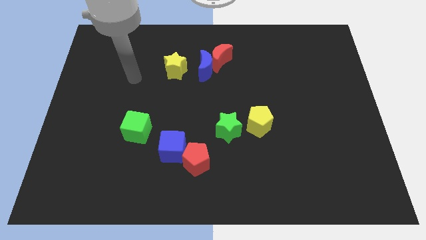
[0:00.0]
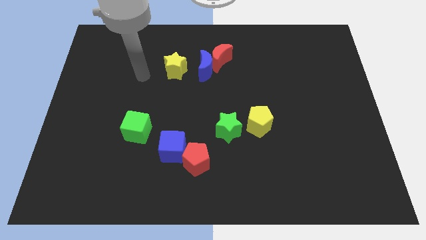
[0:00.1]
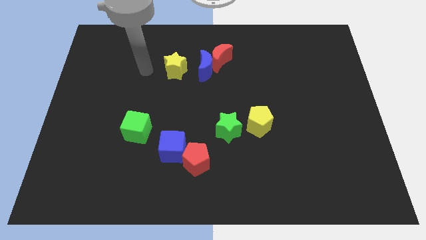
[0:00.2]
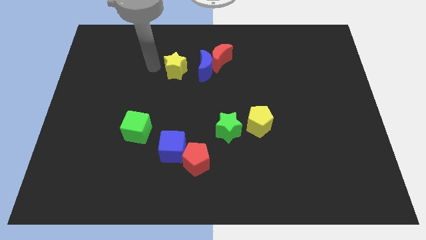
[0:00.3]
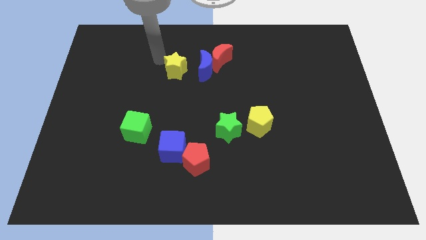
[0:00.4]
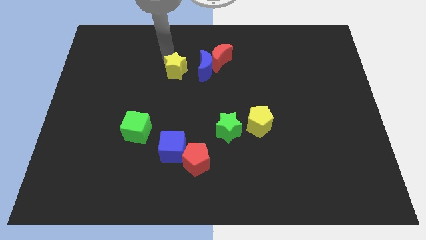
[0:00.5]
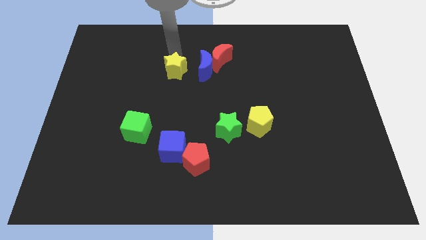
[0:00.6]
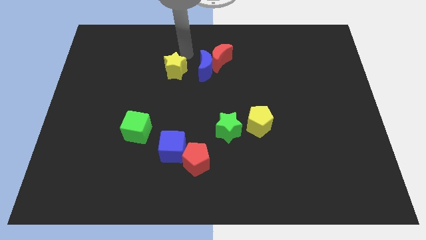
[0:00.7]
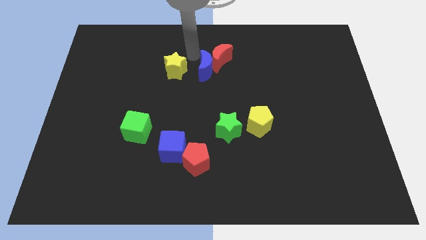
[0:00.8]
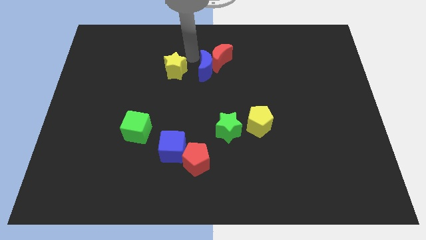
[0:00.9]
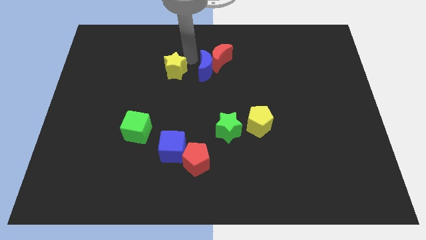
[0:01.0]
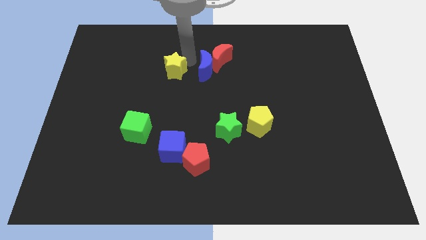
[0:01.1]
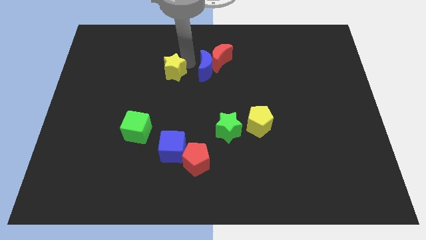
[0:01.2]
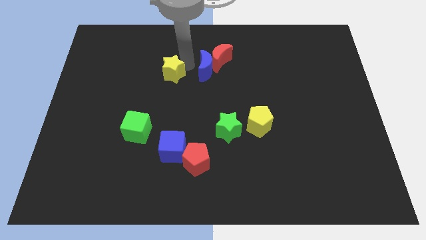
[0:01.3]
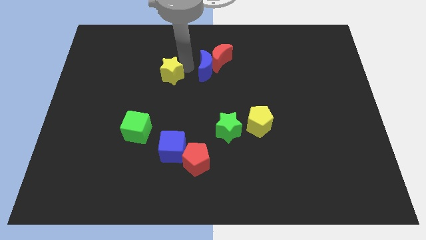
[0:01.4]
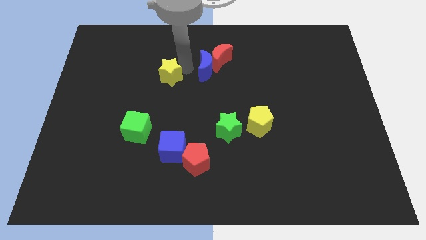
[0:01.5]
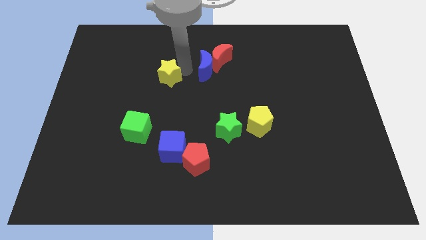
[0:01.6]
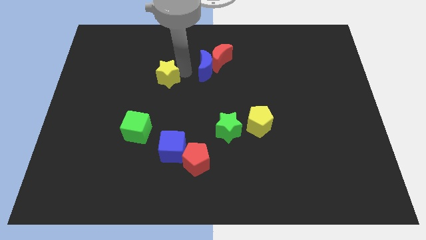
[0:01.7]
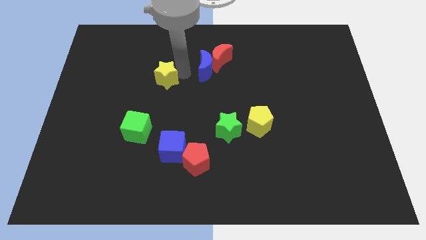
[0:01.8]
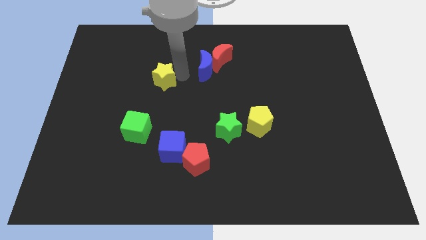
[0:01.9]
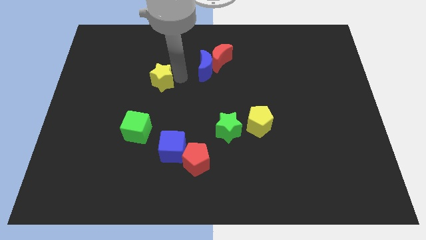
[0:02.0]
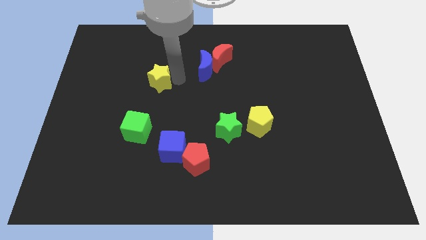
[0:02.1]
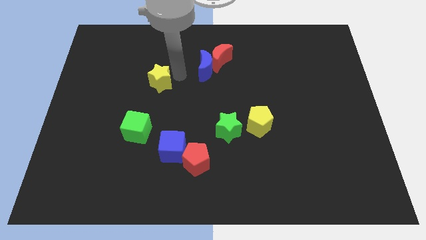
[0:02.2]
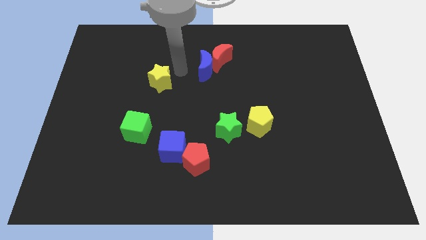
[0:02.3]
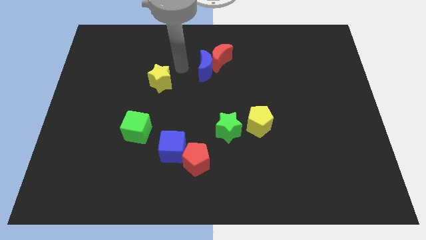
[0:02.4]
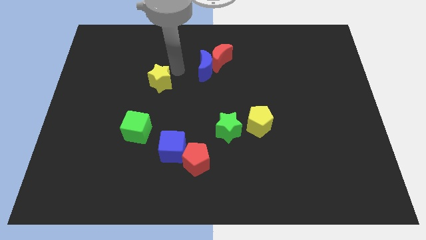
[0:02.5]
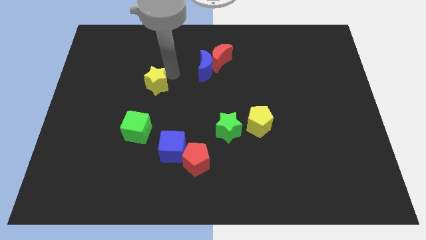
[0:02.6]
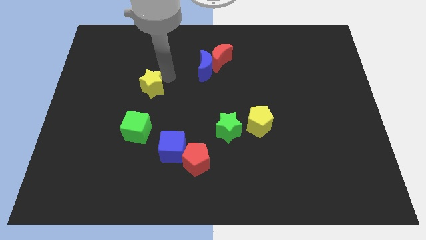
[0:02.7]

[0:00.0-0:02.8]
push the yellow star slightly downwards and then to the left

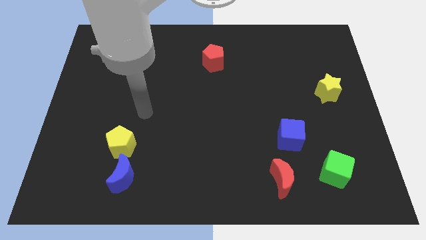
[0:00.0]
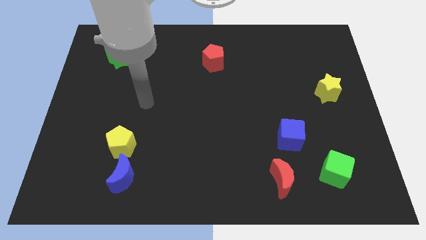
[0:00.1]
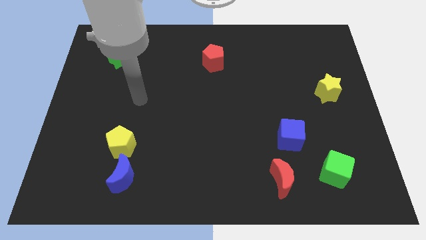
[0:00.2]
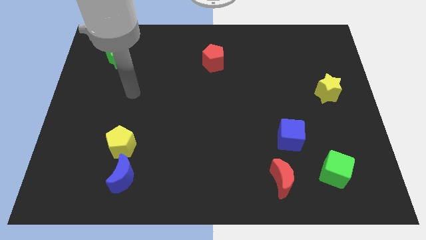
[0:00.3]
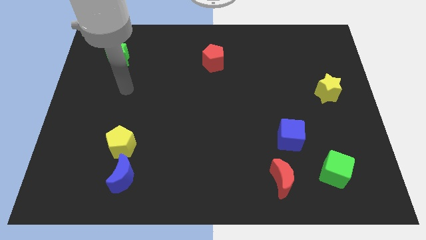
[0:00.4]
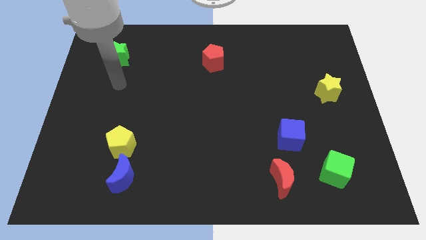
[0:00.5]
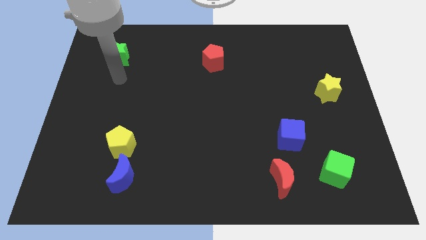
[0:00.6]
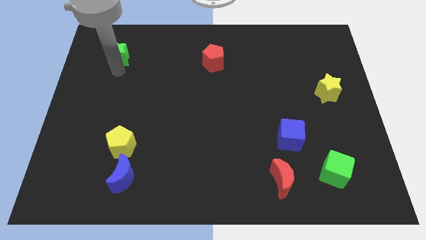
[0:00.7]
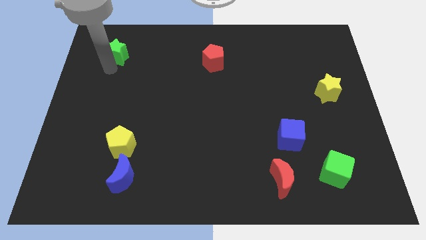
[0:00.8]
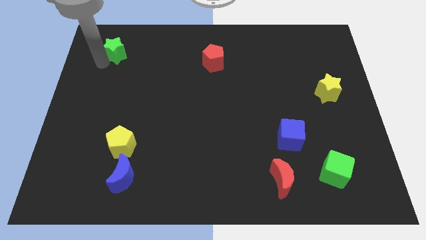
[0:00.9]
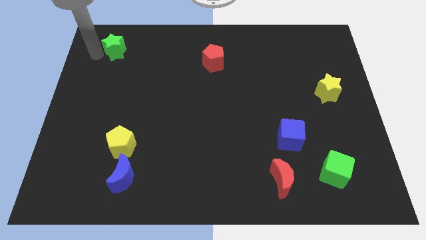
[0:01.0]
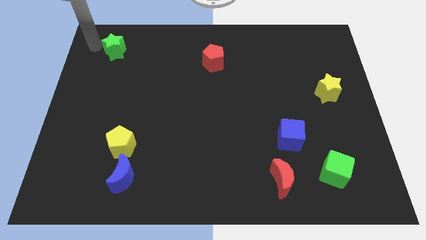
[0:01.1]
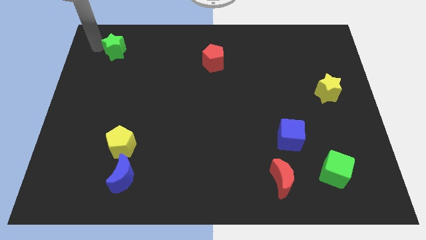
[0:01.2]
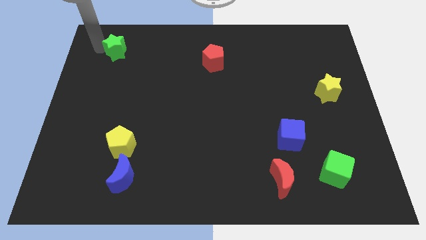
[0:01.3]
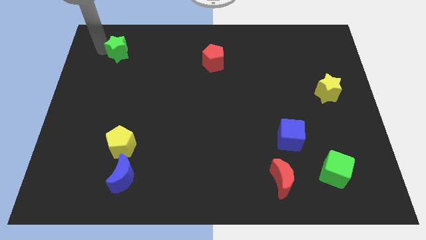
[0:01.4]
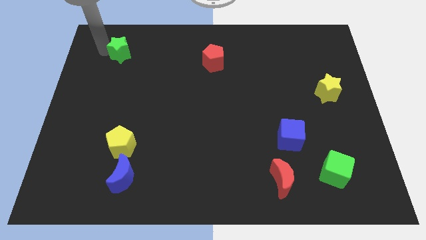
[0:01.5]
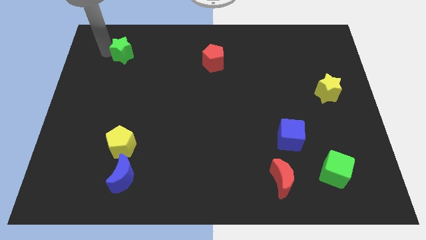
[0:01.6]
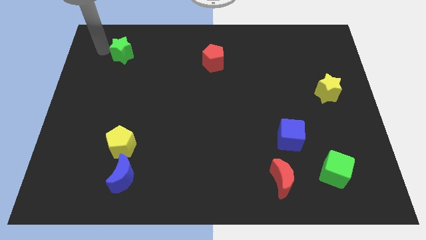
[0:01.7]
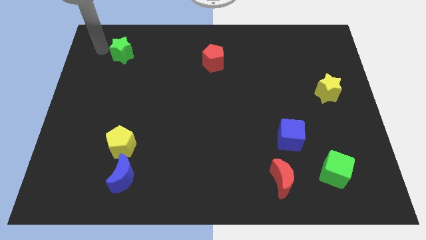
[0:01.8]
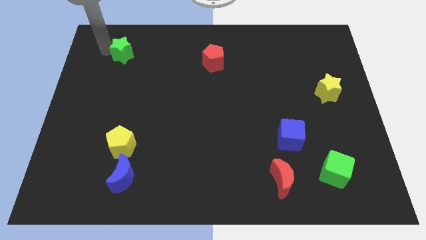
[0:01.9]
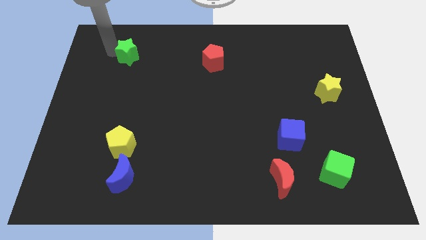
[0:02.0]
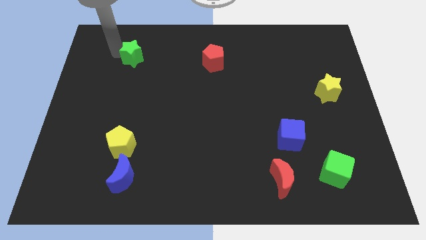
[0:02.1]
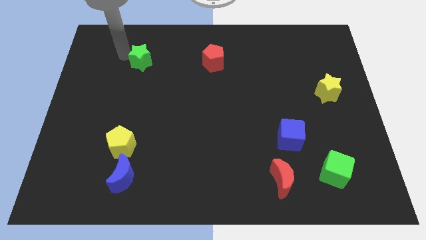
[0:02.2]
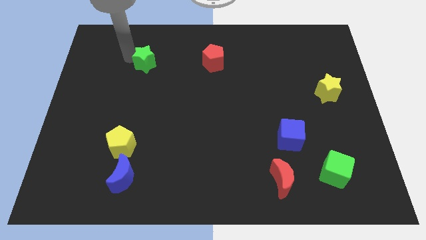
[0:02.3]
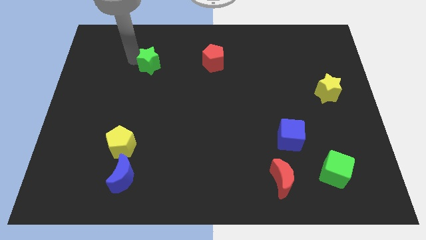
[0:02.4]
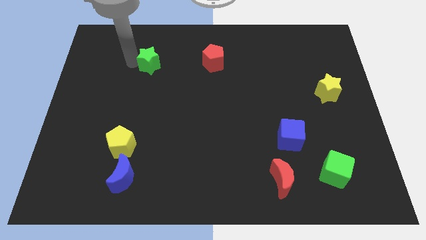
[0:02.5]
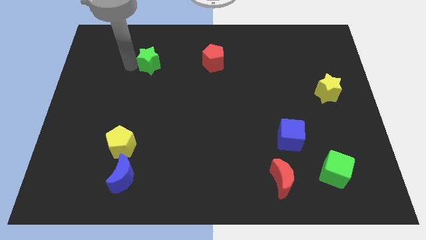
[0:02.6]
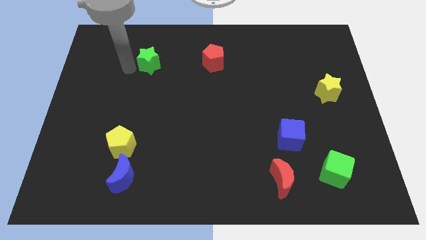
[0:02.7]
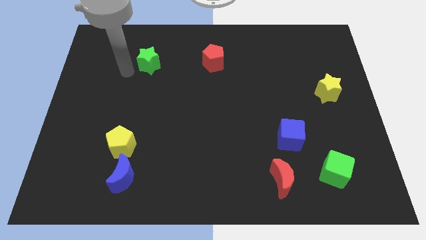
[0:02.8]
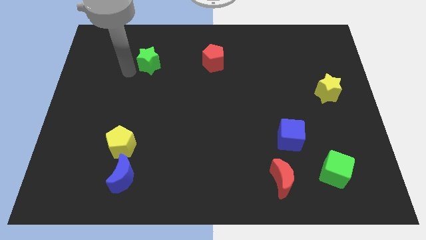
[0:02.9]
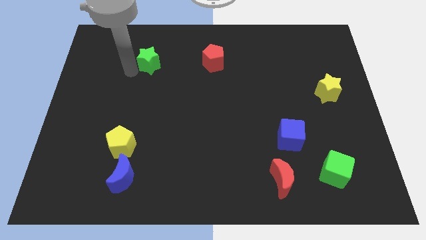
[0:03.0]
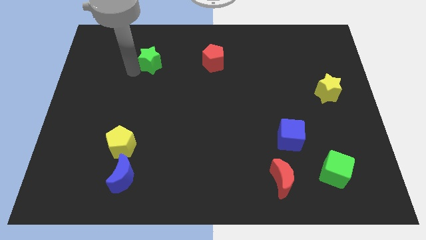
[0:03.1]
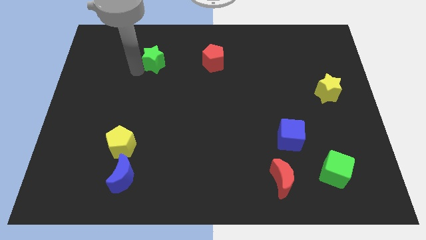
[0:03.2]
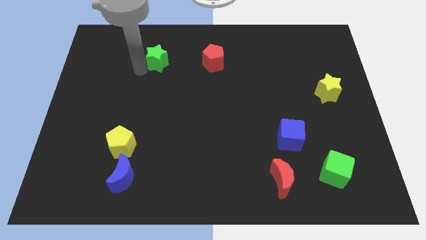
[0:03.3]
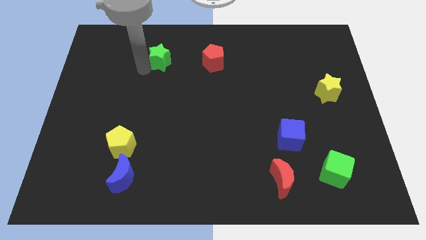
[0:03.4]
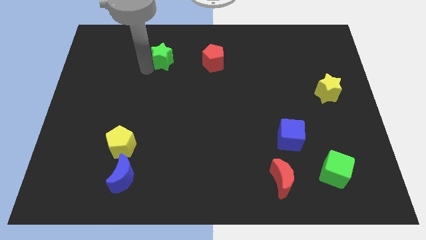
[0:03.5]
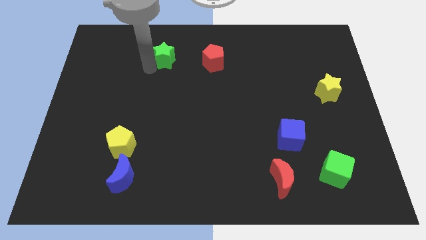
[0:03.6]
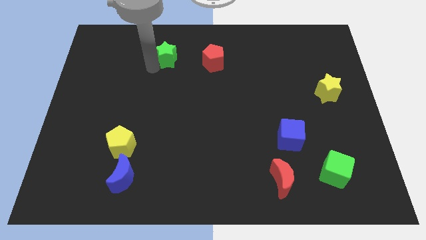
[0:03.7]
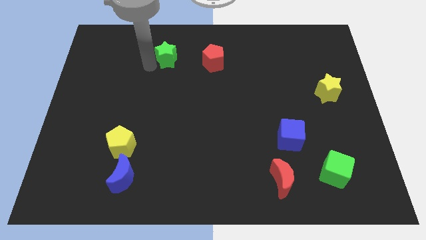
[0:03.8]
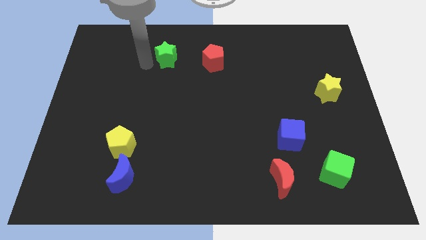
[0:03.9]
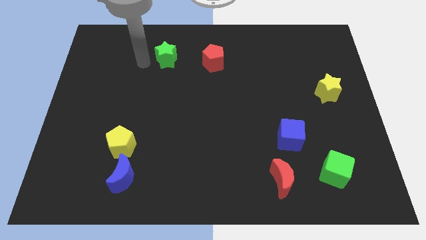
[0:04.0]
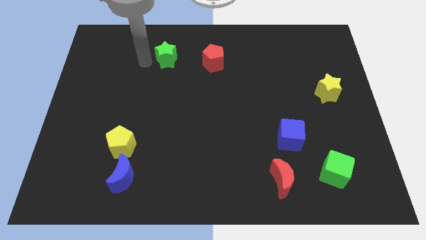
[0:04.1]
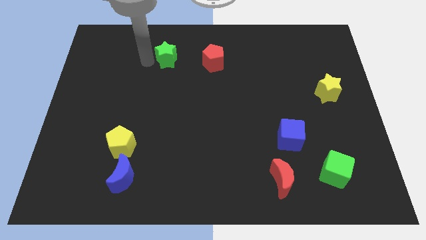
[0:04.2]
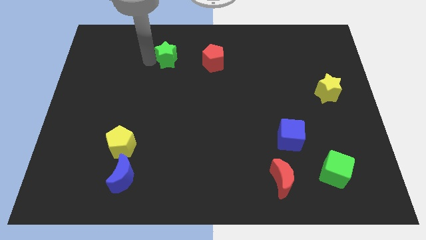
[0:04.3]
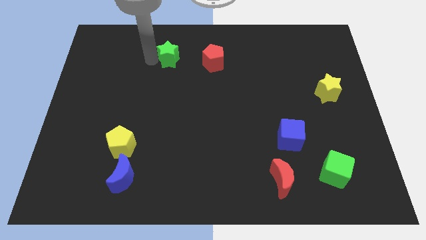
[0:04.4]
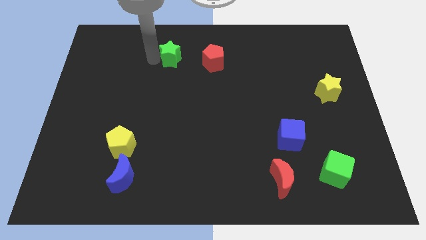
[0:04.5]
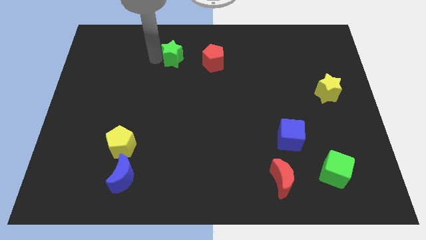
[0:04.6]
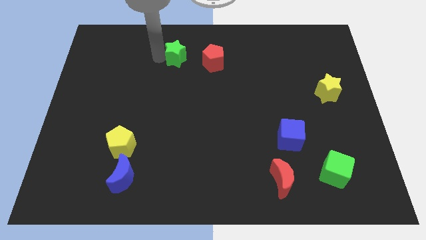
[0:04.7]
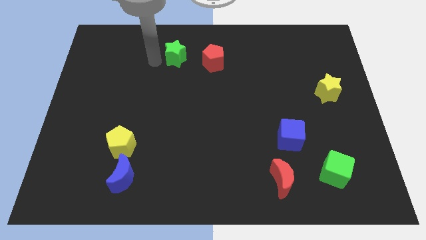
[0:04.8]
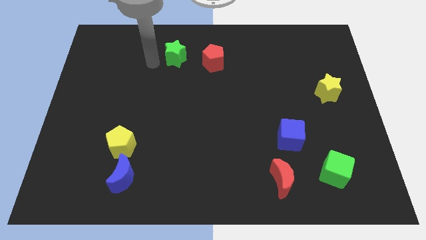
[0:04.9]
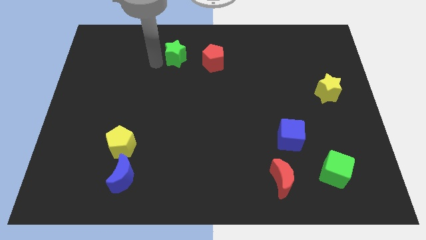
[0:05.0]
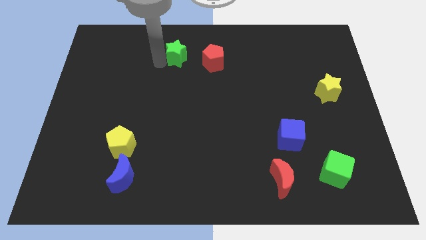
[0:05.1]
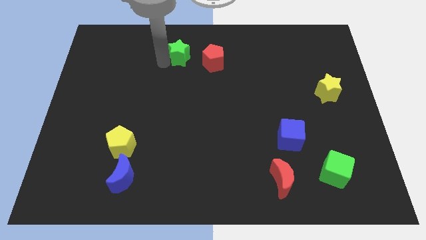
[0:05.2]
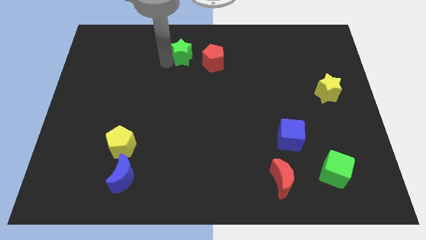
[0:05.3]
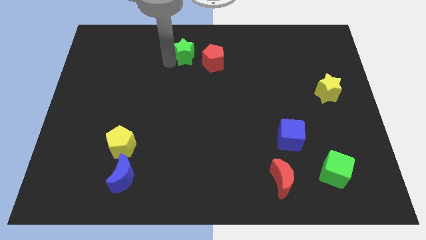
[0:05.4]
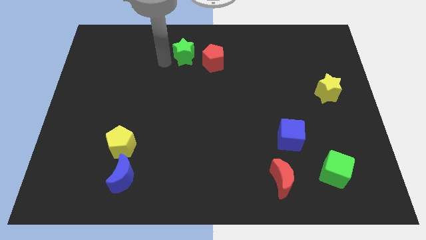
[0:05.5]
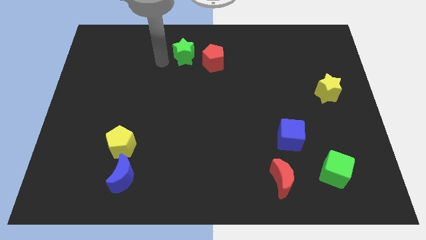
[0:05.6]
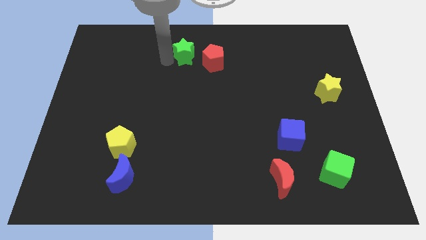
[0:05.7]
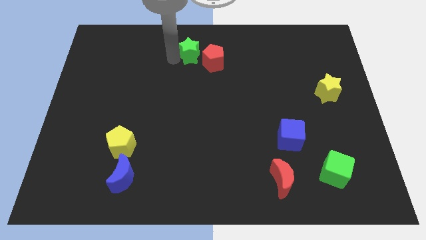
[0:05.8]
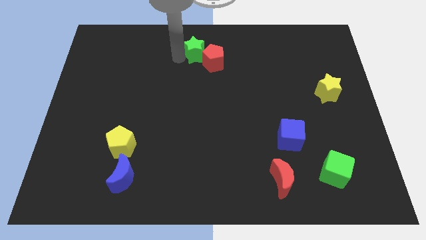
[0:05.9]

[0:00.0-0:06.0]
push the green star to the right
